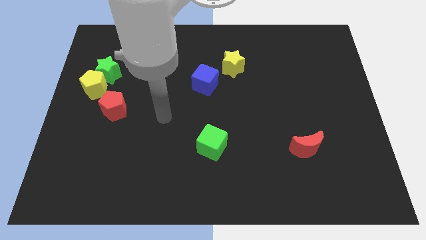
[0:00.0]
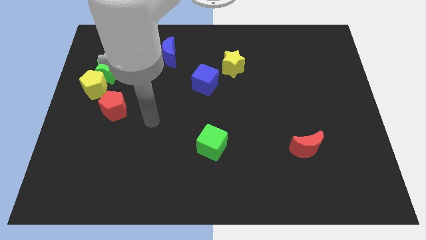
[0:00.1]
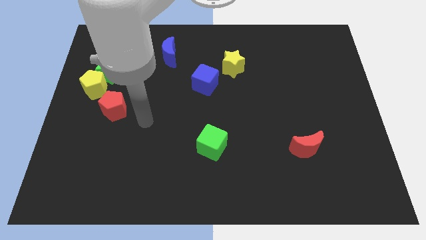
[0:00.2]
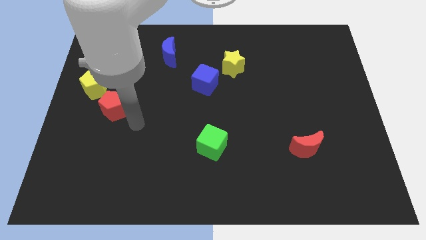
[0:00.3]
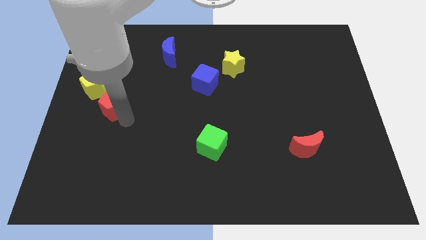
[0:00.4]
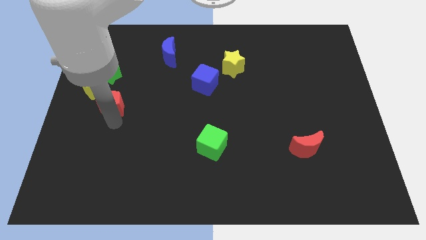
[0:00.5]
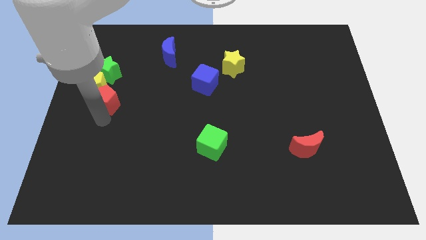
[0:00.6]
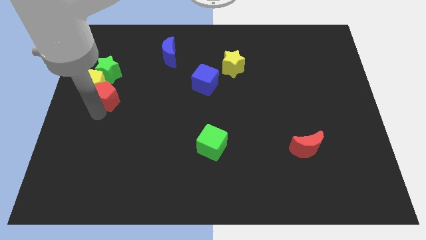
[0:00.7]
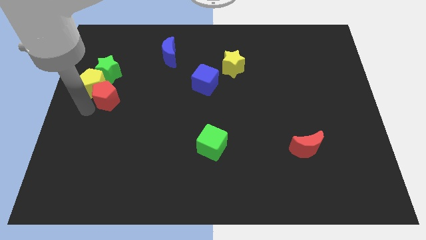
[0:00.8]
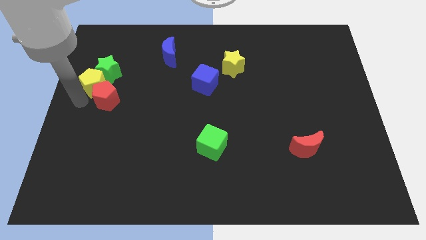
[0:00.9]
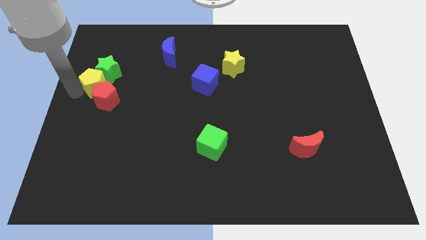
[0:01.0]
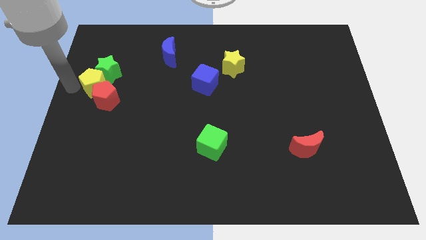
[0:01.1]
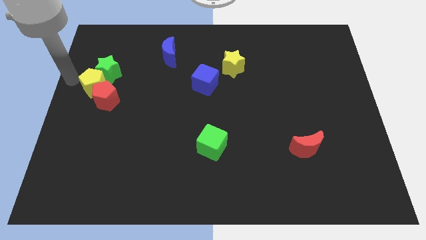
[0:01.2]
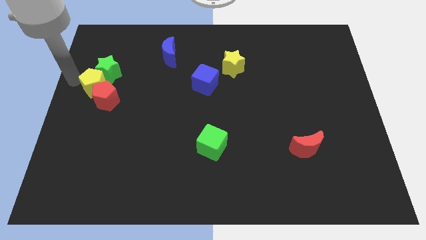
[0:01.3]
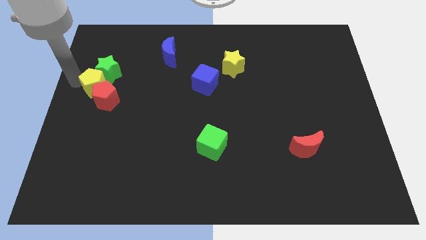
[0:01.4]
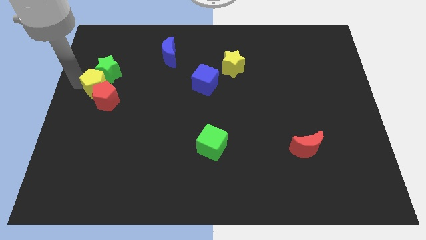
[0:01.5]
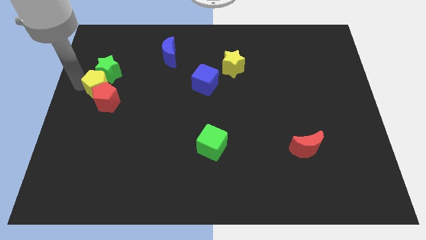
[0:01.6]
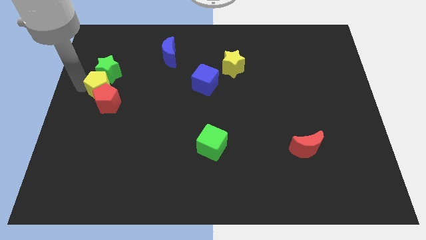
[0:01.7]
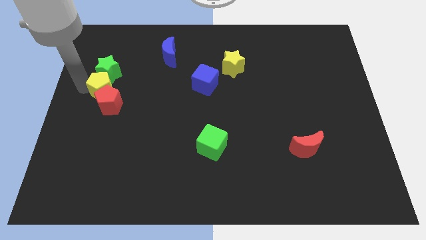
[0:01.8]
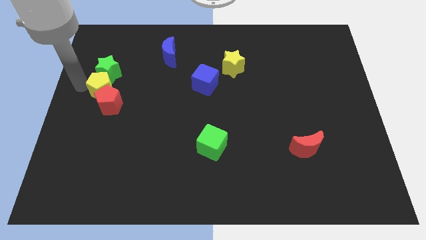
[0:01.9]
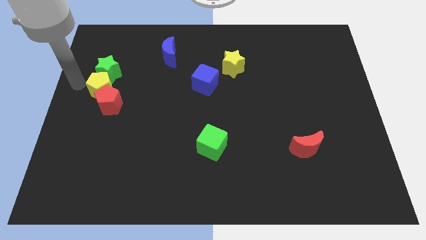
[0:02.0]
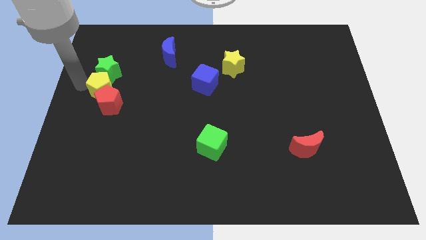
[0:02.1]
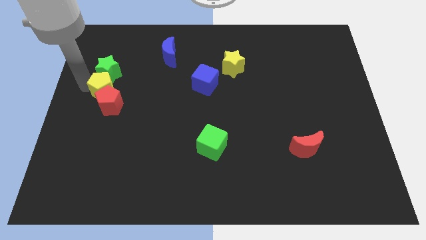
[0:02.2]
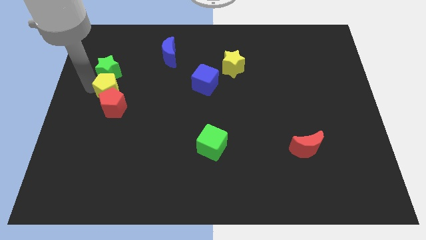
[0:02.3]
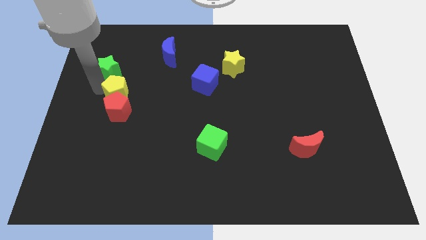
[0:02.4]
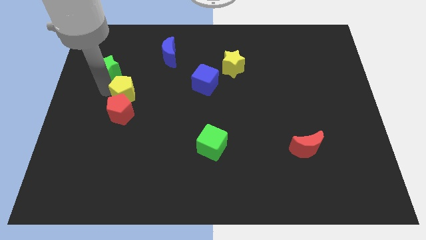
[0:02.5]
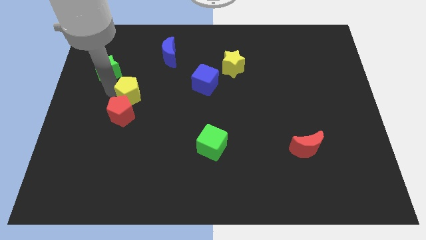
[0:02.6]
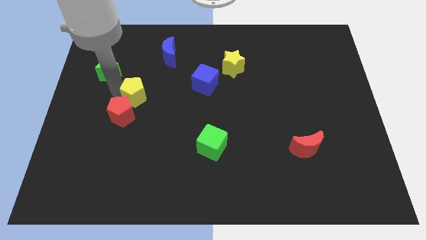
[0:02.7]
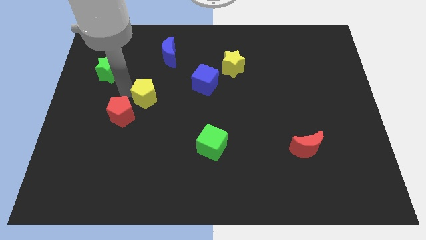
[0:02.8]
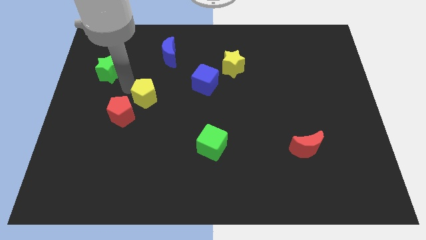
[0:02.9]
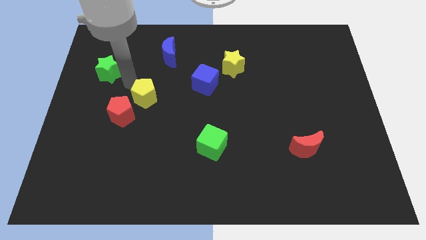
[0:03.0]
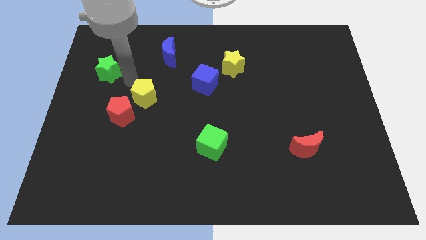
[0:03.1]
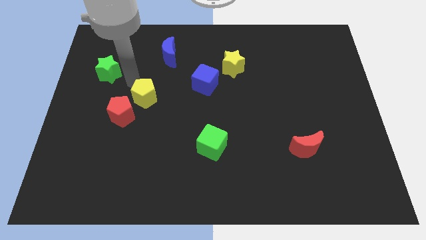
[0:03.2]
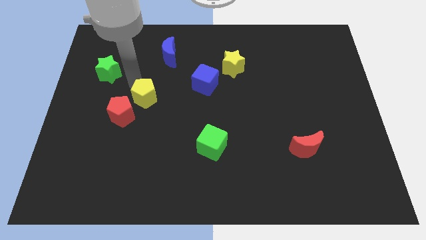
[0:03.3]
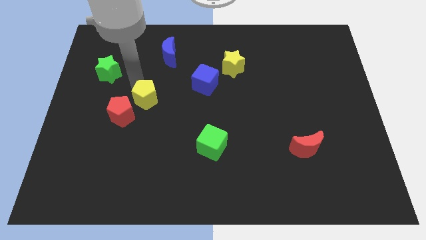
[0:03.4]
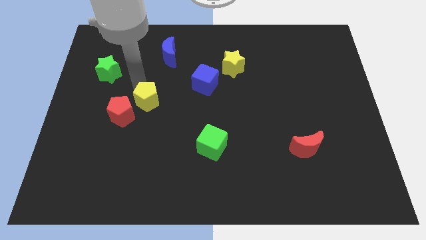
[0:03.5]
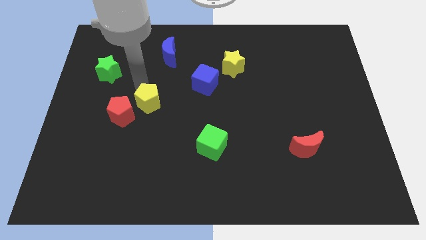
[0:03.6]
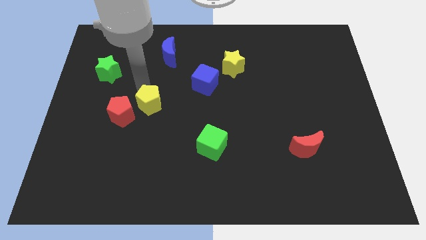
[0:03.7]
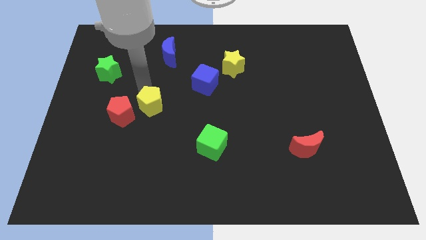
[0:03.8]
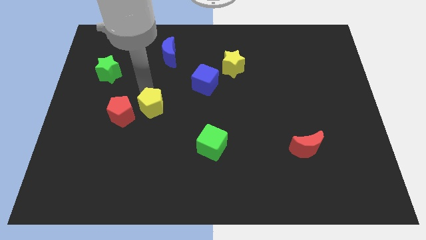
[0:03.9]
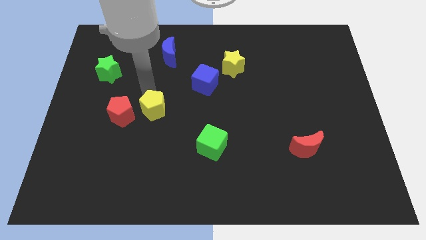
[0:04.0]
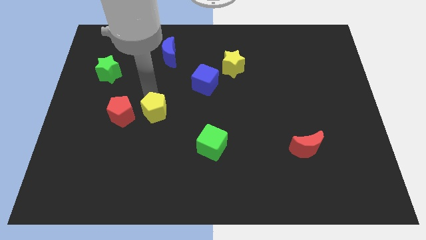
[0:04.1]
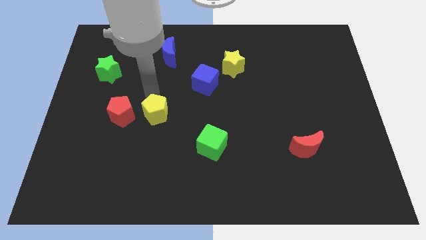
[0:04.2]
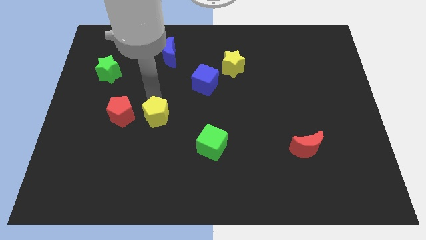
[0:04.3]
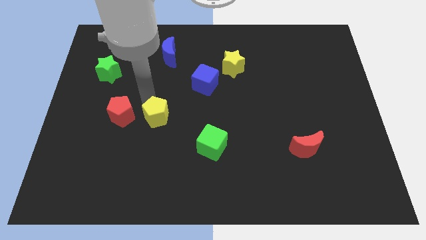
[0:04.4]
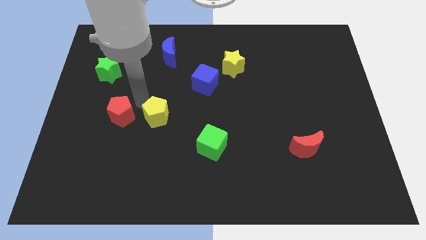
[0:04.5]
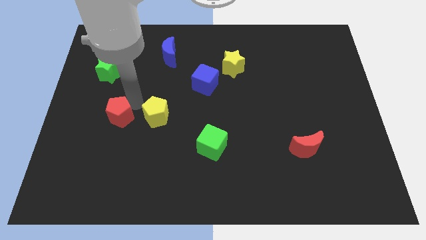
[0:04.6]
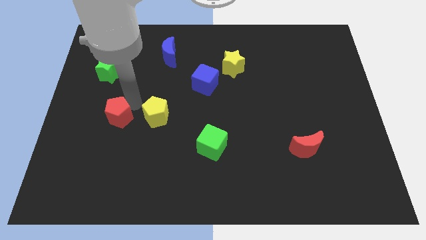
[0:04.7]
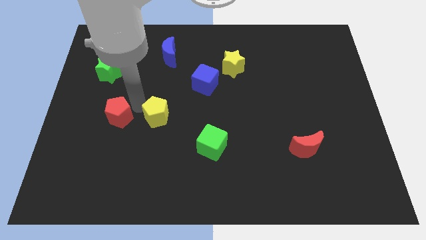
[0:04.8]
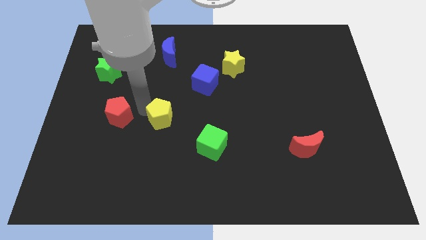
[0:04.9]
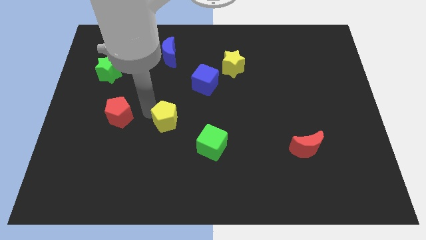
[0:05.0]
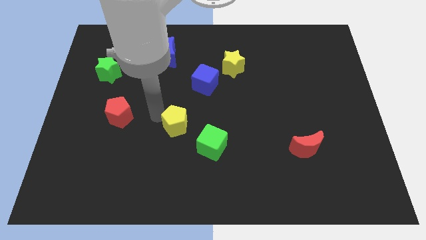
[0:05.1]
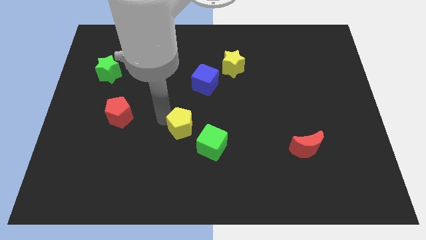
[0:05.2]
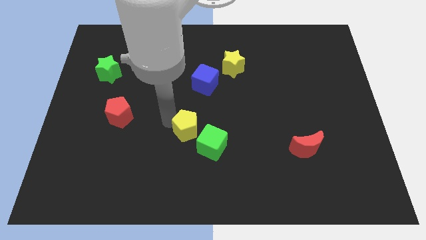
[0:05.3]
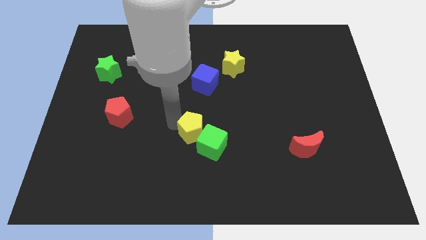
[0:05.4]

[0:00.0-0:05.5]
push the yellow pentagon next to the green cube

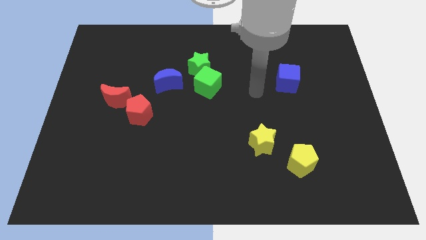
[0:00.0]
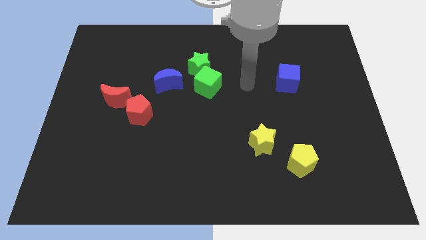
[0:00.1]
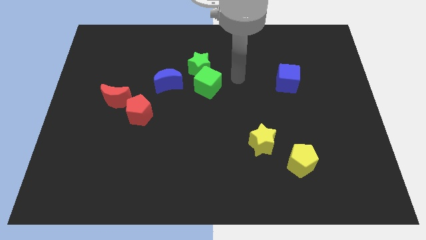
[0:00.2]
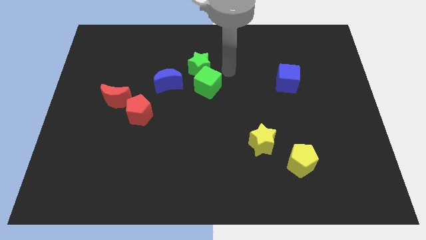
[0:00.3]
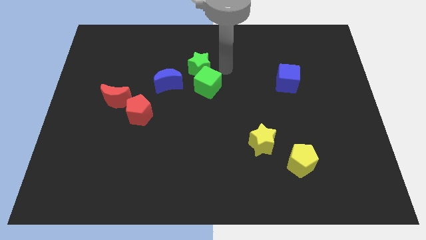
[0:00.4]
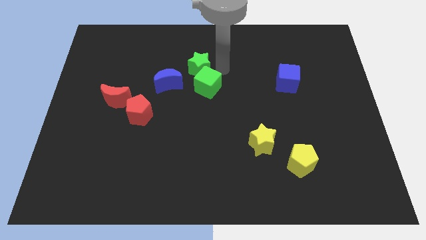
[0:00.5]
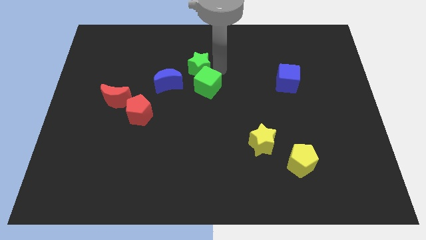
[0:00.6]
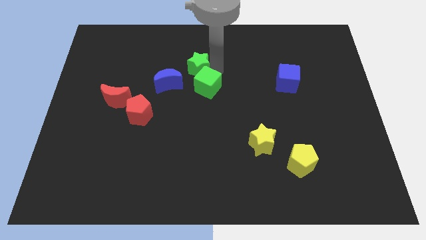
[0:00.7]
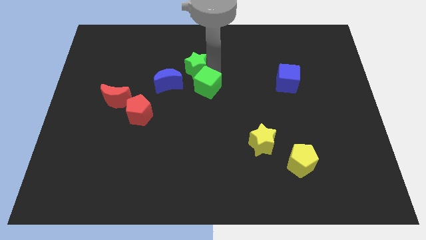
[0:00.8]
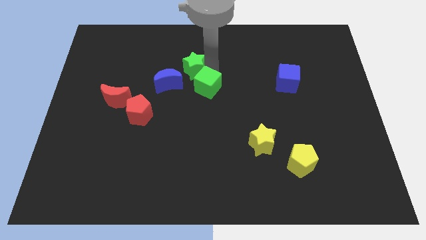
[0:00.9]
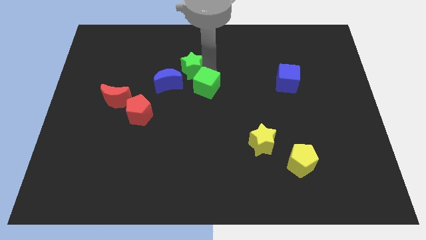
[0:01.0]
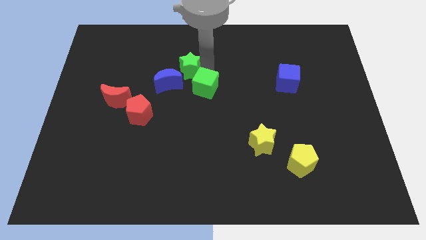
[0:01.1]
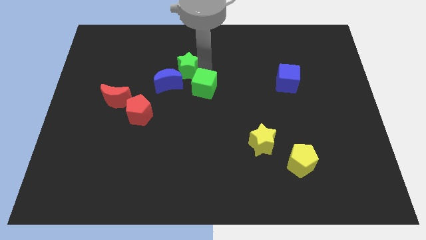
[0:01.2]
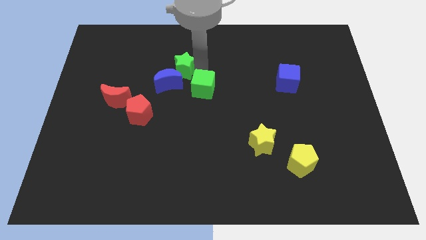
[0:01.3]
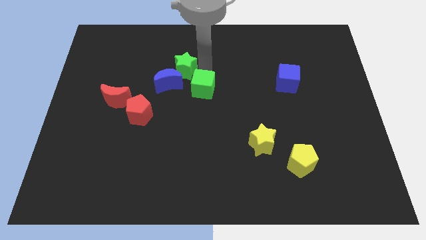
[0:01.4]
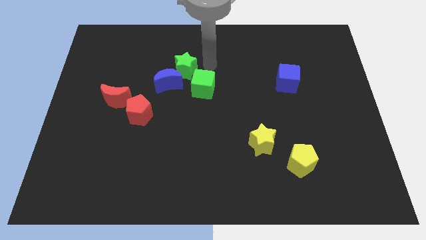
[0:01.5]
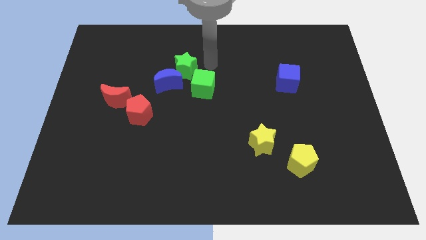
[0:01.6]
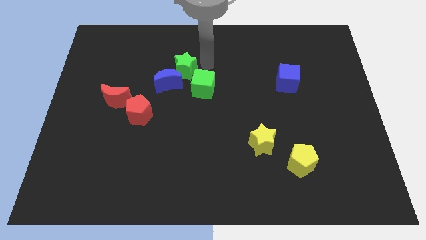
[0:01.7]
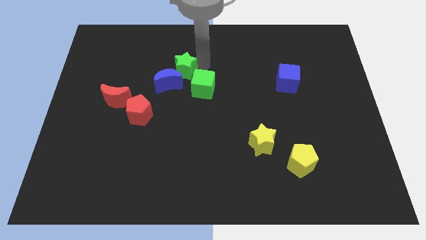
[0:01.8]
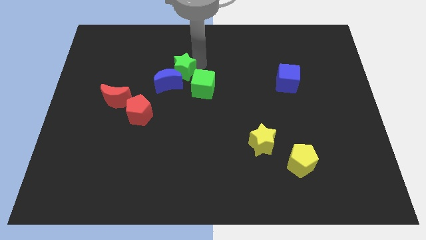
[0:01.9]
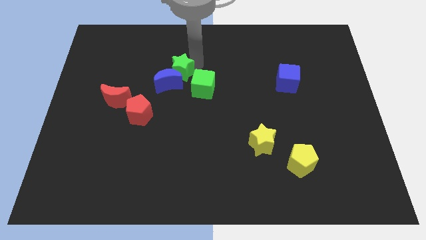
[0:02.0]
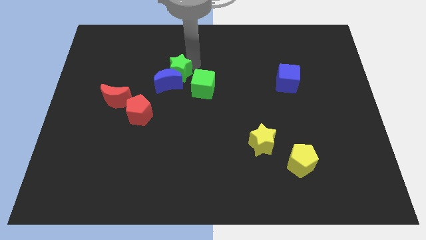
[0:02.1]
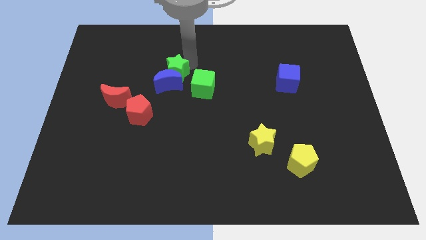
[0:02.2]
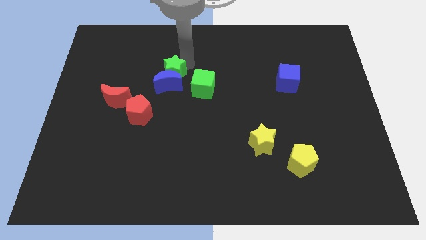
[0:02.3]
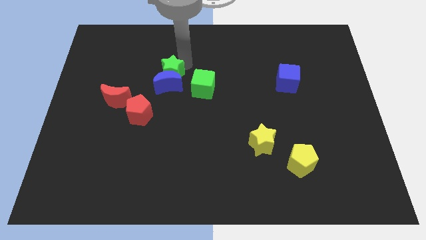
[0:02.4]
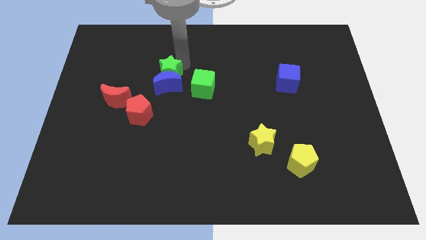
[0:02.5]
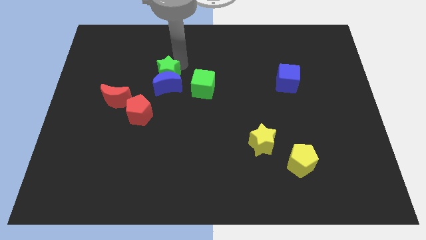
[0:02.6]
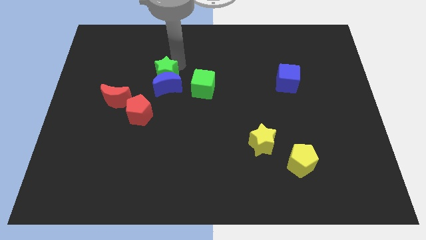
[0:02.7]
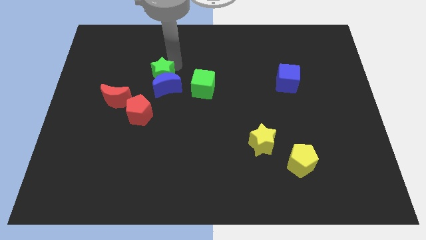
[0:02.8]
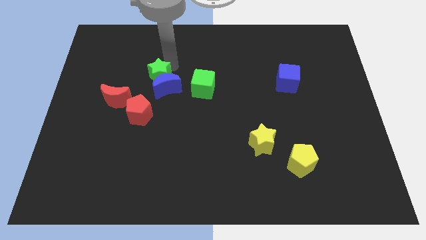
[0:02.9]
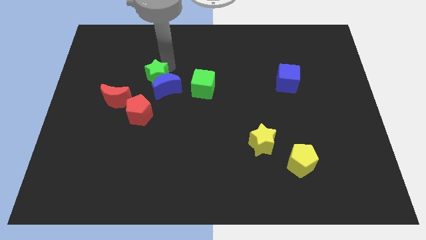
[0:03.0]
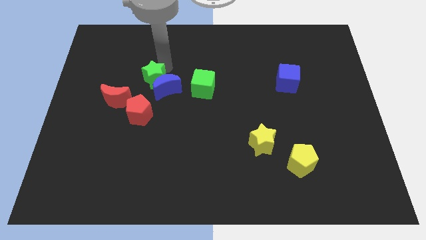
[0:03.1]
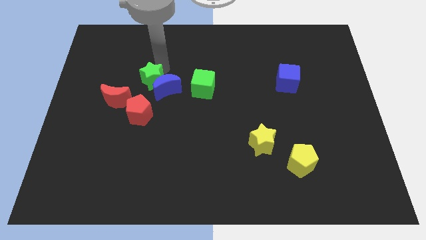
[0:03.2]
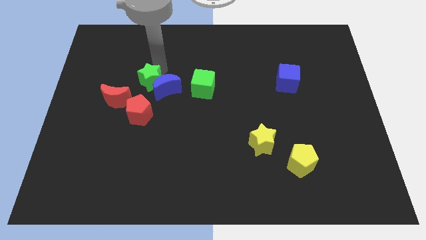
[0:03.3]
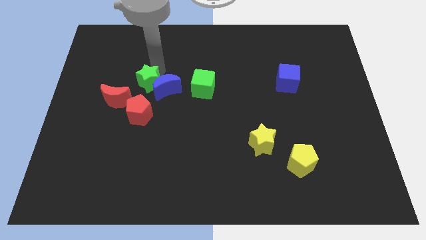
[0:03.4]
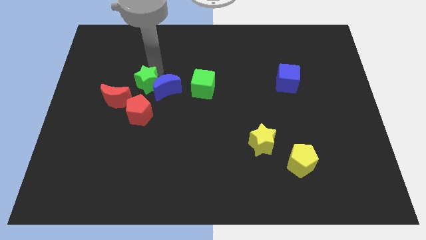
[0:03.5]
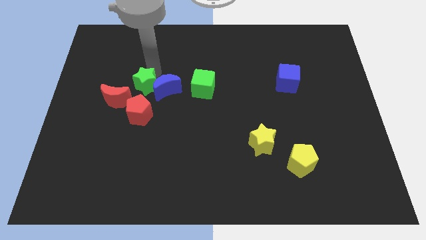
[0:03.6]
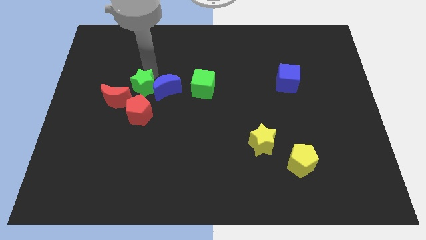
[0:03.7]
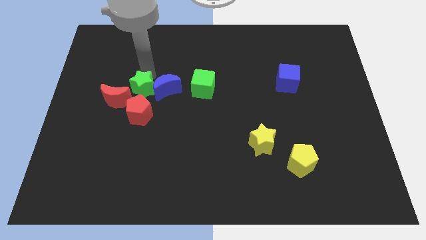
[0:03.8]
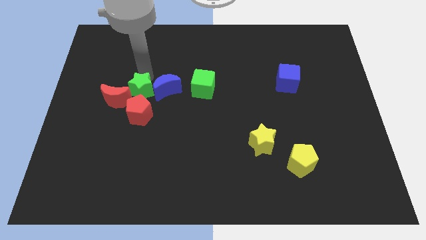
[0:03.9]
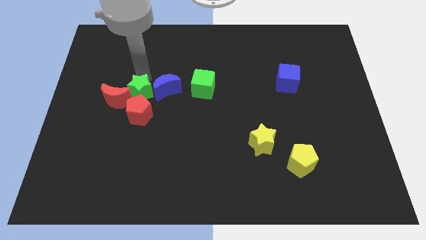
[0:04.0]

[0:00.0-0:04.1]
move the green star towards the red moon
